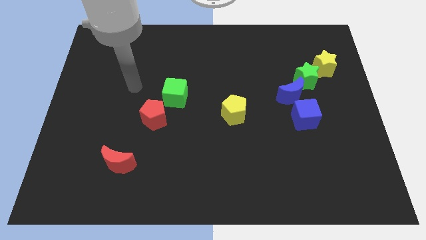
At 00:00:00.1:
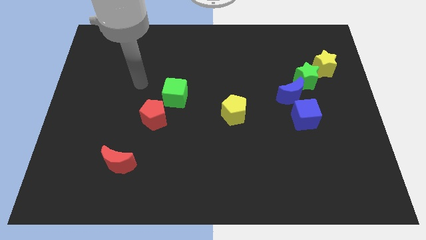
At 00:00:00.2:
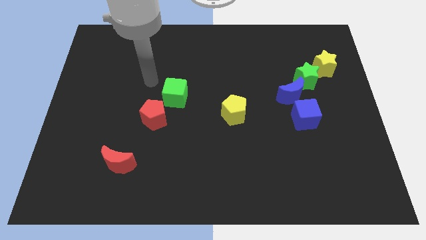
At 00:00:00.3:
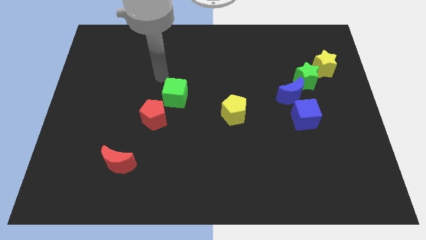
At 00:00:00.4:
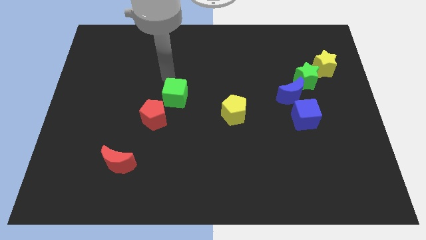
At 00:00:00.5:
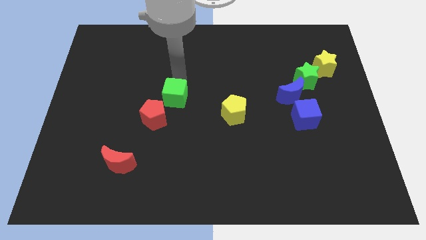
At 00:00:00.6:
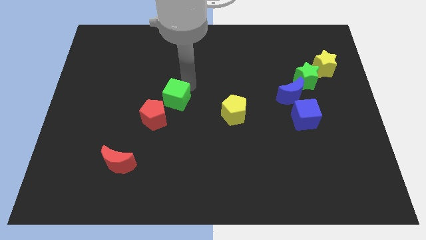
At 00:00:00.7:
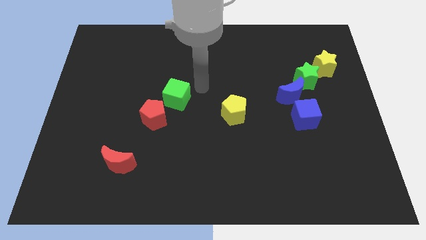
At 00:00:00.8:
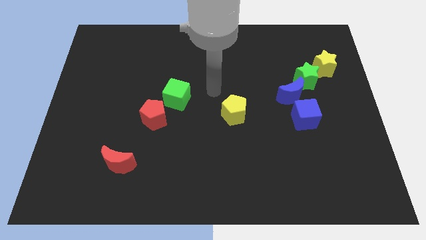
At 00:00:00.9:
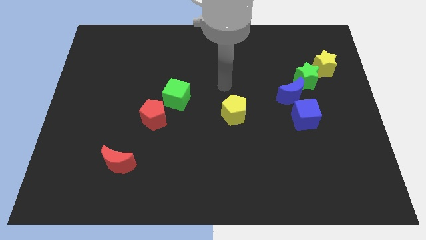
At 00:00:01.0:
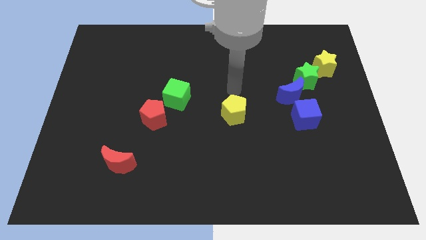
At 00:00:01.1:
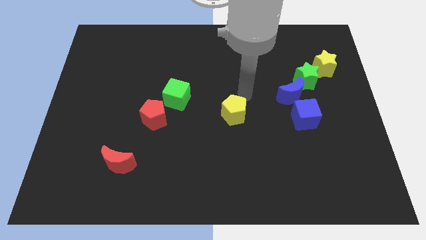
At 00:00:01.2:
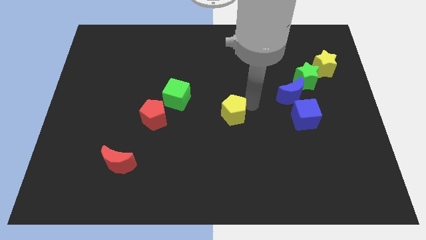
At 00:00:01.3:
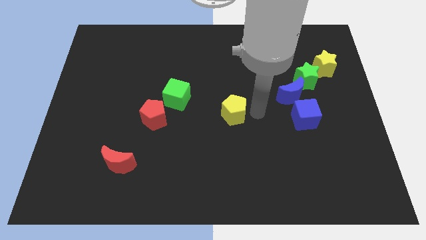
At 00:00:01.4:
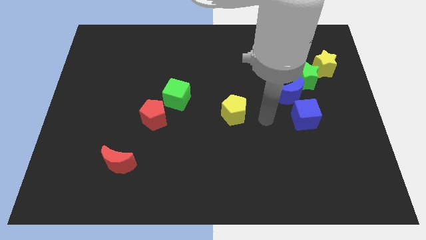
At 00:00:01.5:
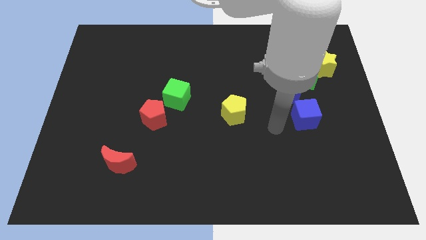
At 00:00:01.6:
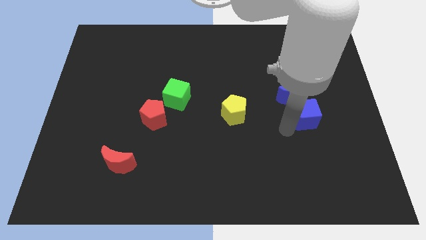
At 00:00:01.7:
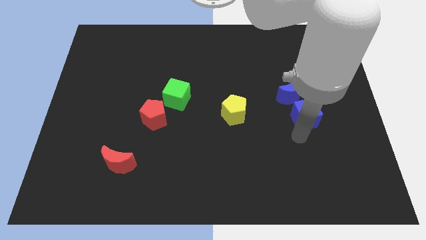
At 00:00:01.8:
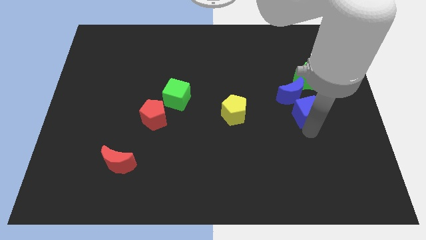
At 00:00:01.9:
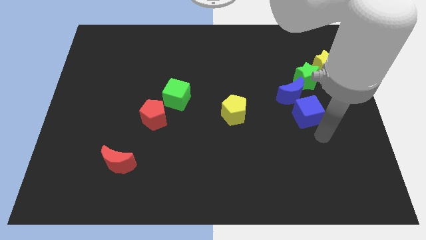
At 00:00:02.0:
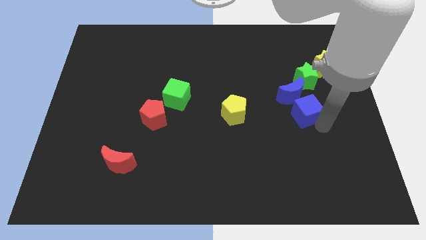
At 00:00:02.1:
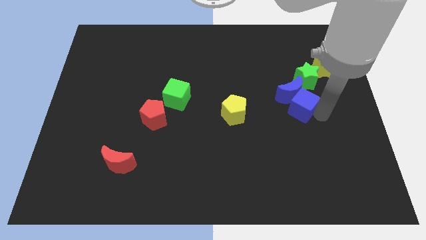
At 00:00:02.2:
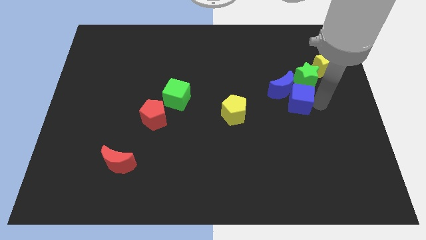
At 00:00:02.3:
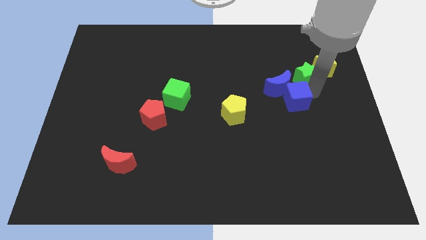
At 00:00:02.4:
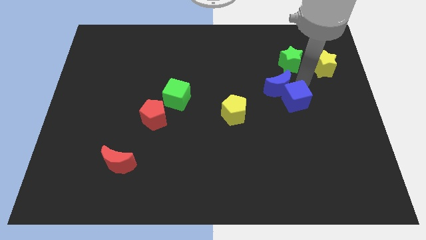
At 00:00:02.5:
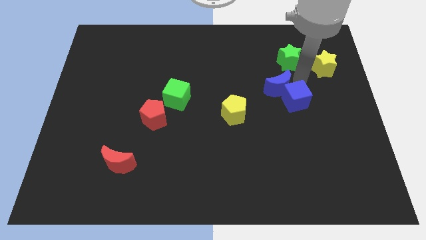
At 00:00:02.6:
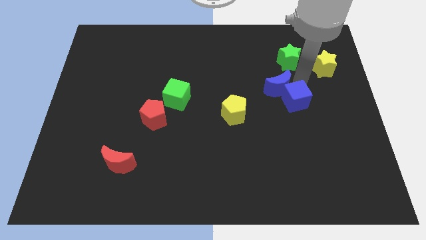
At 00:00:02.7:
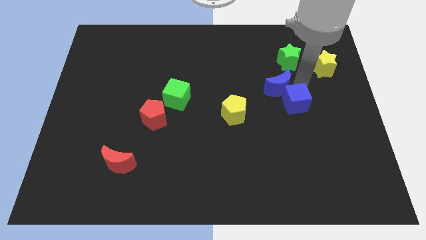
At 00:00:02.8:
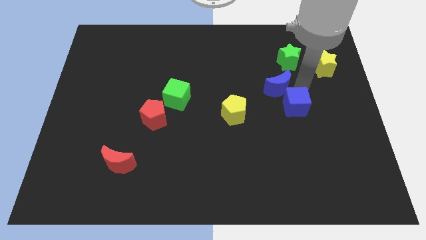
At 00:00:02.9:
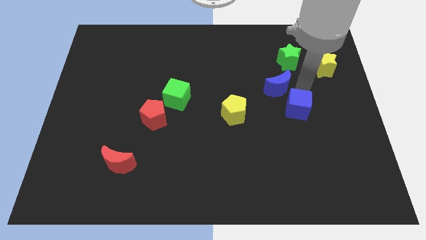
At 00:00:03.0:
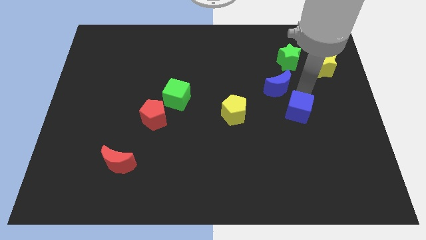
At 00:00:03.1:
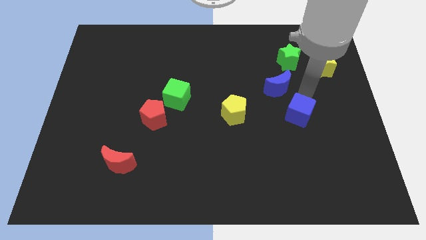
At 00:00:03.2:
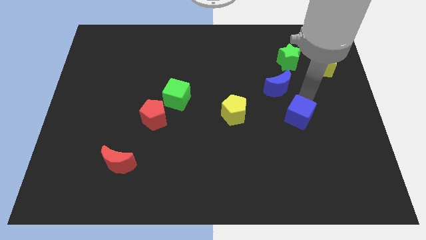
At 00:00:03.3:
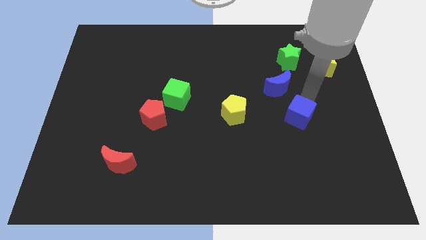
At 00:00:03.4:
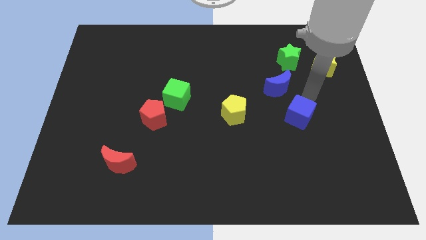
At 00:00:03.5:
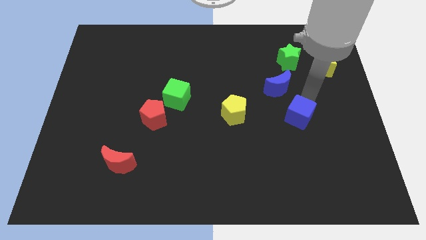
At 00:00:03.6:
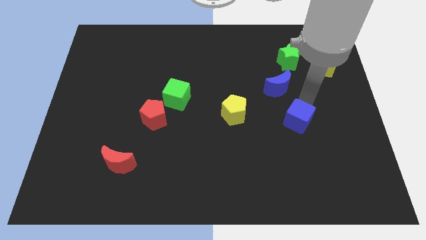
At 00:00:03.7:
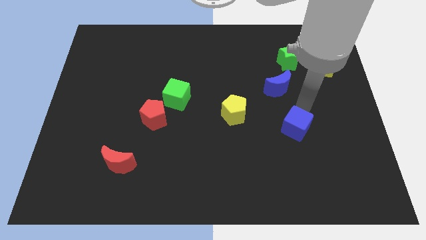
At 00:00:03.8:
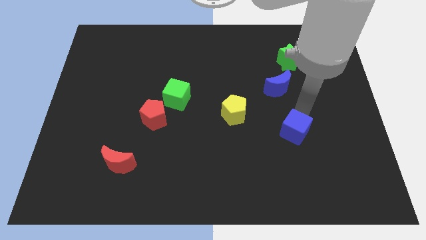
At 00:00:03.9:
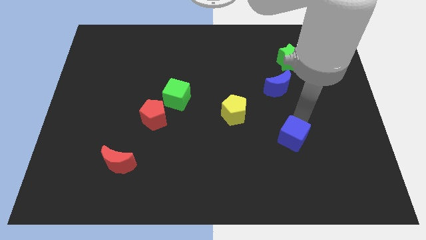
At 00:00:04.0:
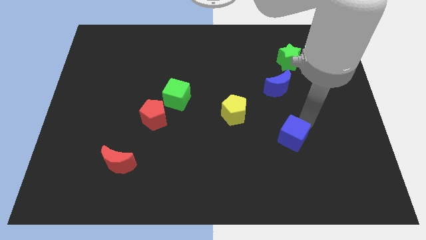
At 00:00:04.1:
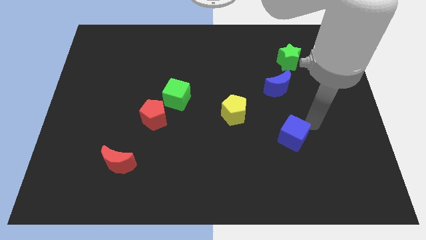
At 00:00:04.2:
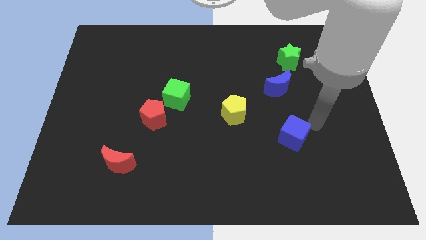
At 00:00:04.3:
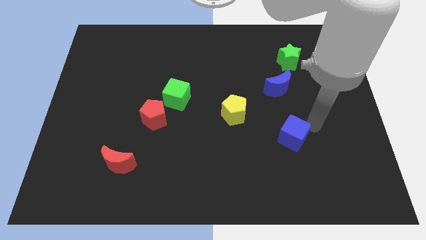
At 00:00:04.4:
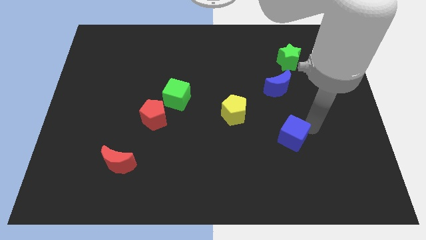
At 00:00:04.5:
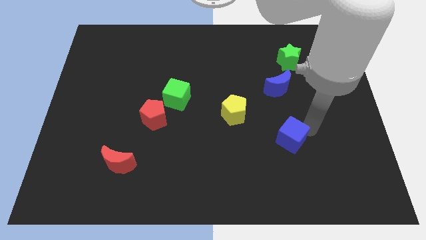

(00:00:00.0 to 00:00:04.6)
slide the blue cube down and to the left a little

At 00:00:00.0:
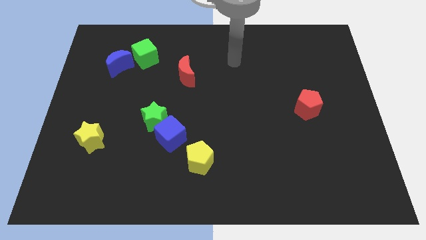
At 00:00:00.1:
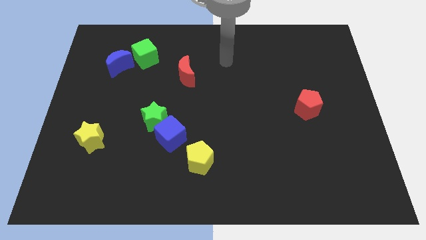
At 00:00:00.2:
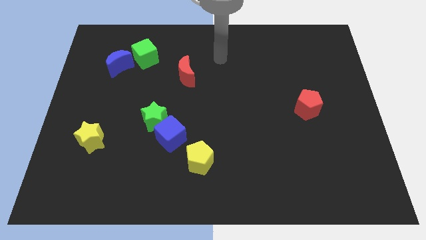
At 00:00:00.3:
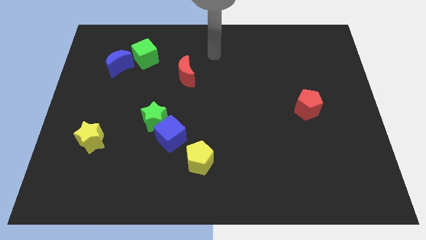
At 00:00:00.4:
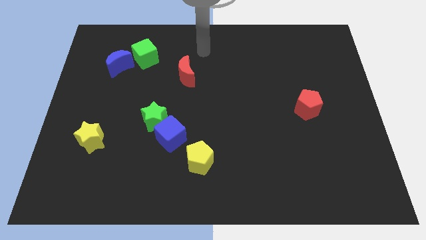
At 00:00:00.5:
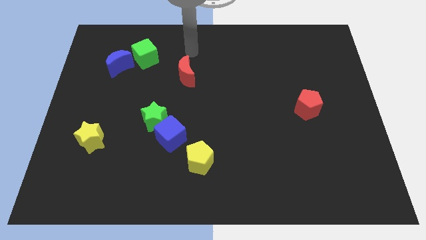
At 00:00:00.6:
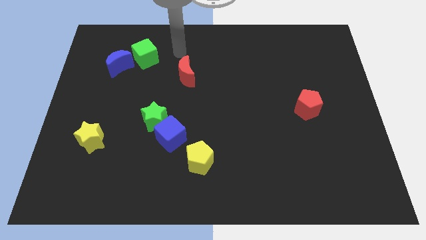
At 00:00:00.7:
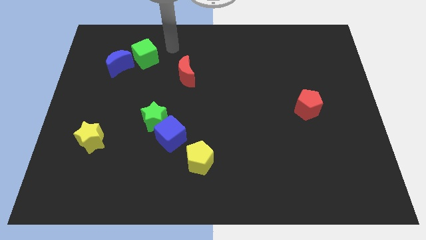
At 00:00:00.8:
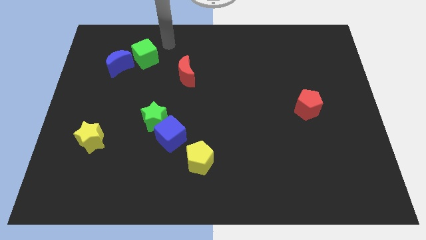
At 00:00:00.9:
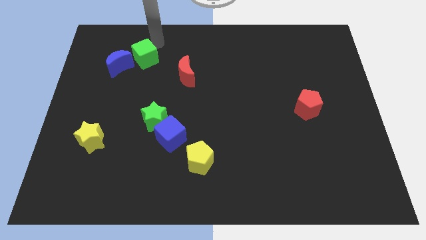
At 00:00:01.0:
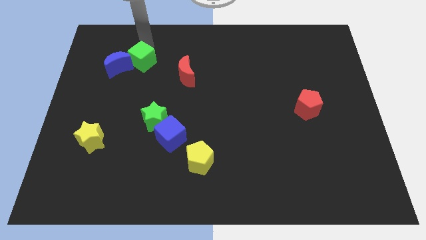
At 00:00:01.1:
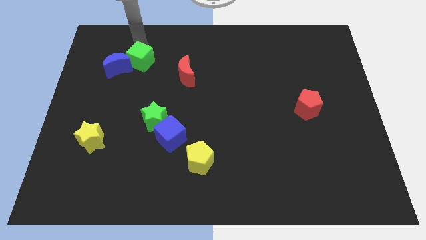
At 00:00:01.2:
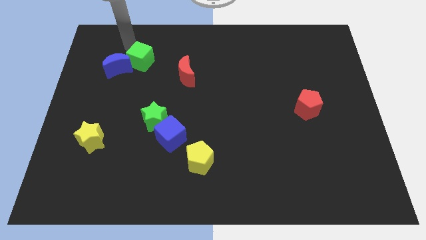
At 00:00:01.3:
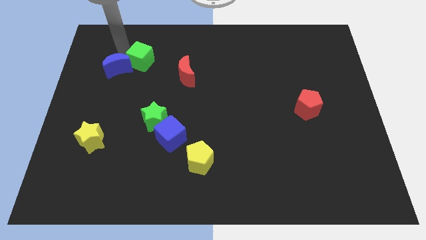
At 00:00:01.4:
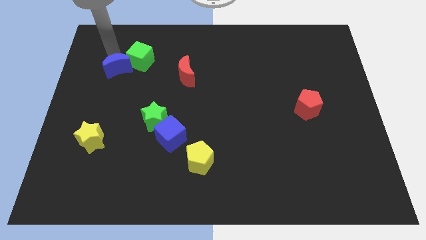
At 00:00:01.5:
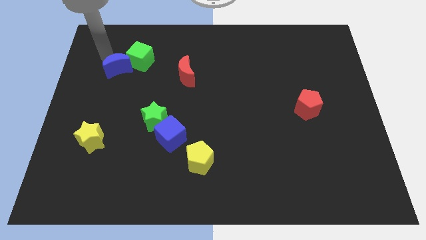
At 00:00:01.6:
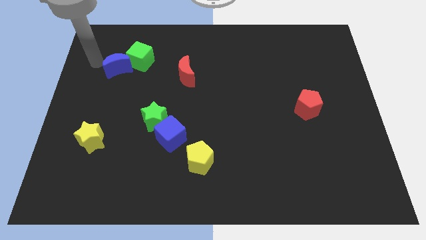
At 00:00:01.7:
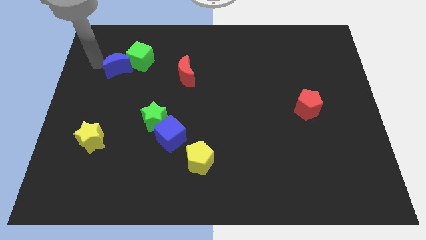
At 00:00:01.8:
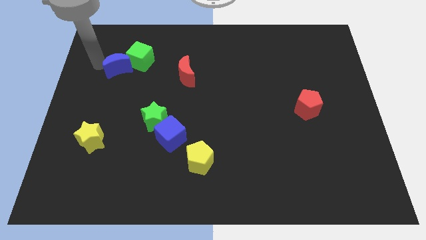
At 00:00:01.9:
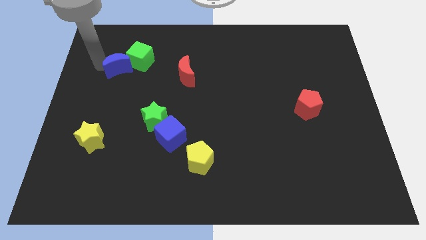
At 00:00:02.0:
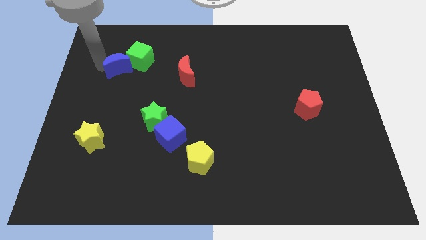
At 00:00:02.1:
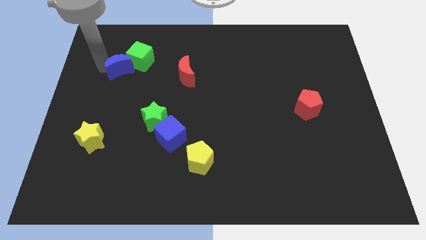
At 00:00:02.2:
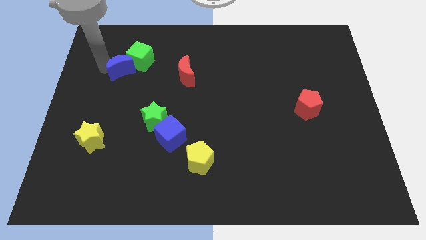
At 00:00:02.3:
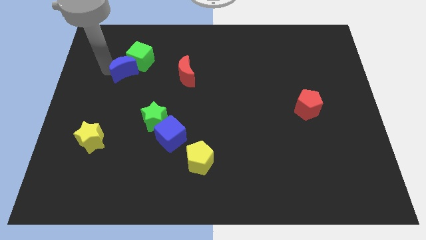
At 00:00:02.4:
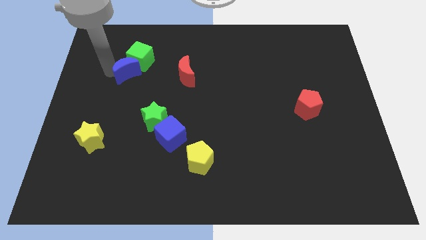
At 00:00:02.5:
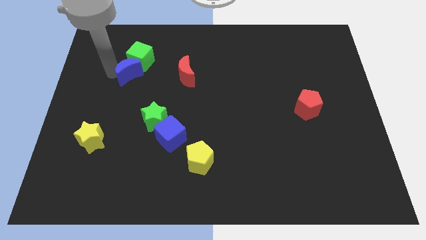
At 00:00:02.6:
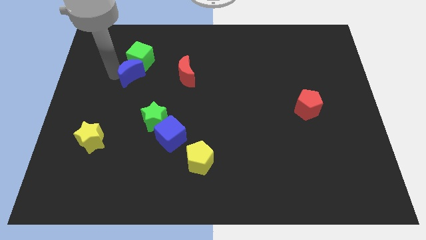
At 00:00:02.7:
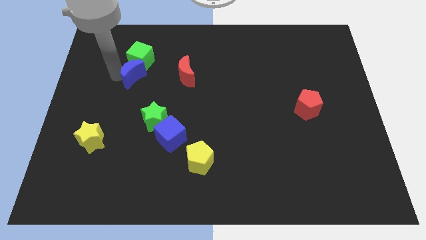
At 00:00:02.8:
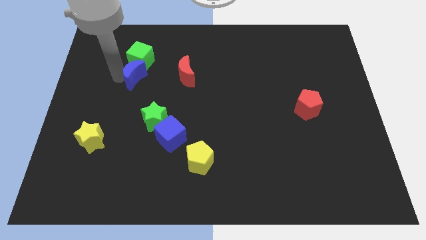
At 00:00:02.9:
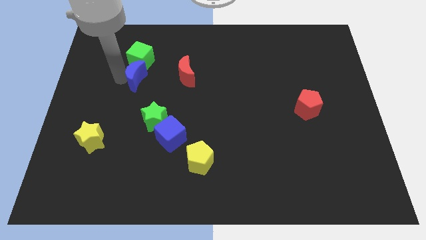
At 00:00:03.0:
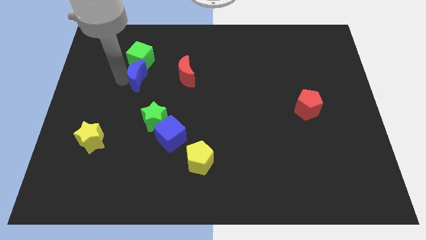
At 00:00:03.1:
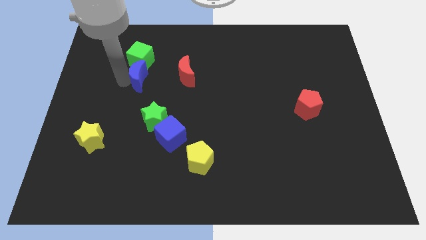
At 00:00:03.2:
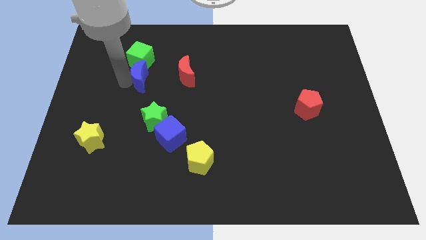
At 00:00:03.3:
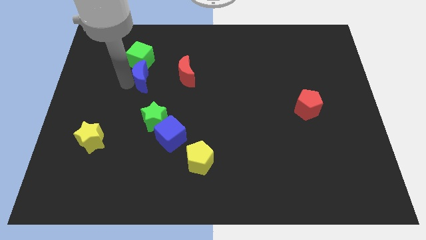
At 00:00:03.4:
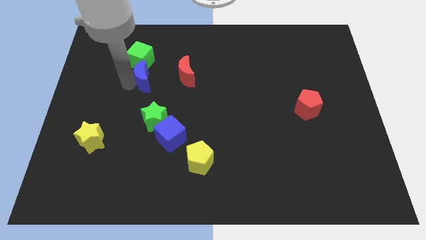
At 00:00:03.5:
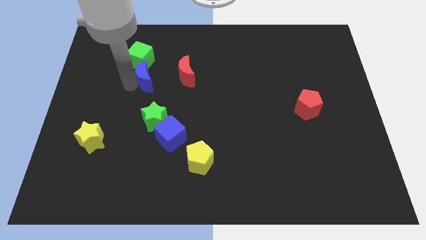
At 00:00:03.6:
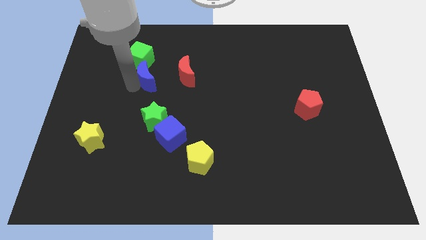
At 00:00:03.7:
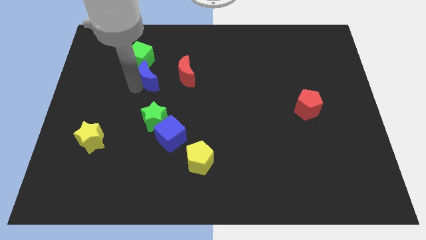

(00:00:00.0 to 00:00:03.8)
move the blue moon to the right a bit
